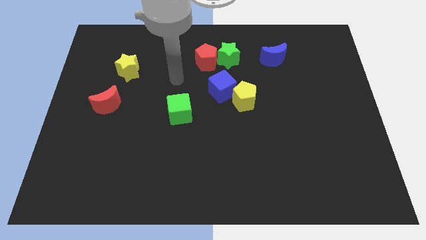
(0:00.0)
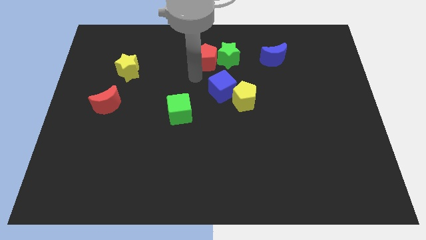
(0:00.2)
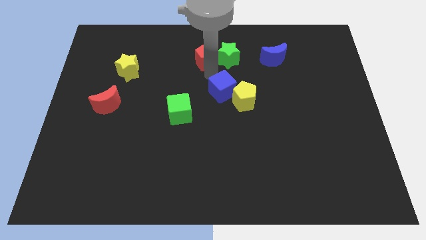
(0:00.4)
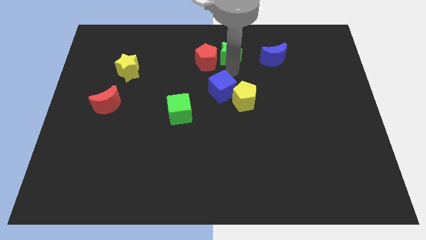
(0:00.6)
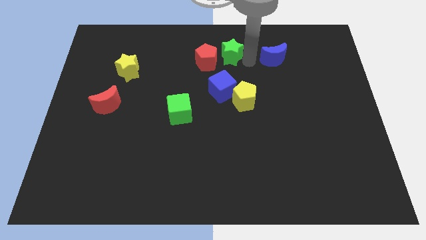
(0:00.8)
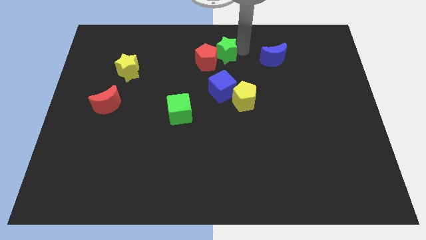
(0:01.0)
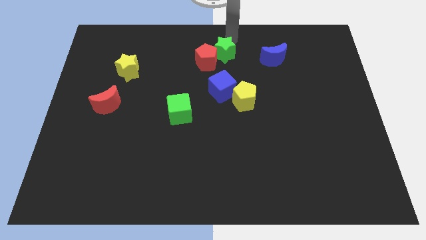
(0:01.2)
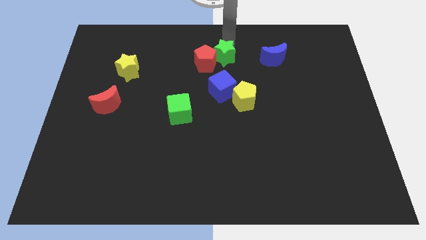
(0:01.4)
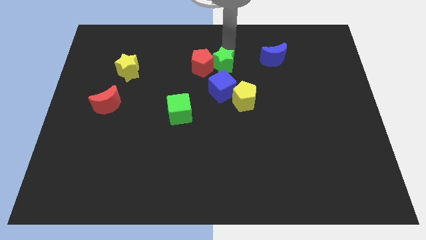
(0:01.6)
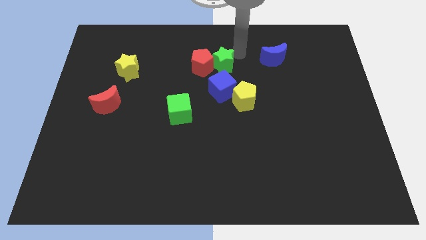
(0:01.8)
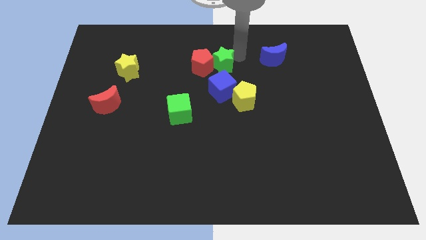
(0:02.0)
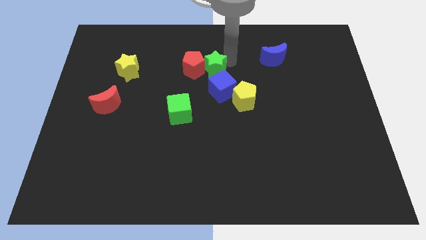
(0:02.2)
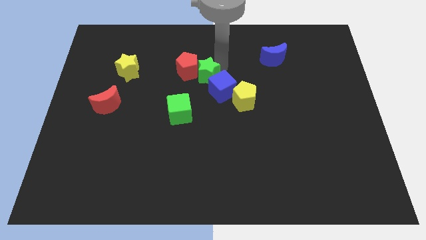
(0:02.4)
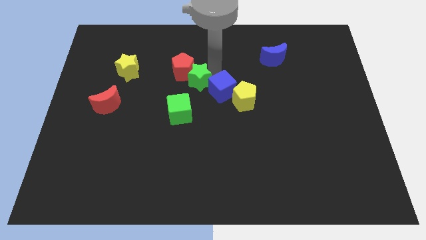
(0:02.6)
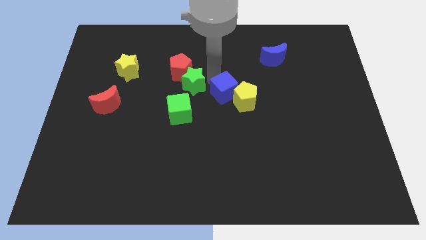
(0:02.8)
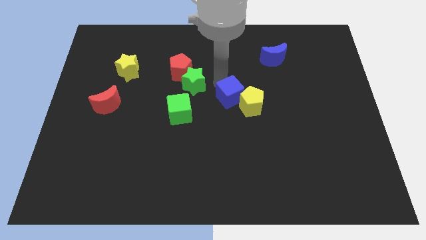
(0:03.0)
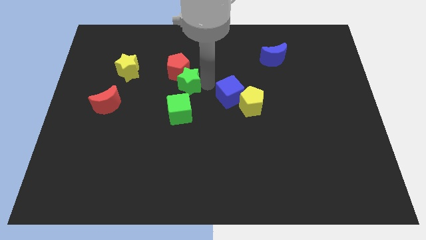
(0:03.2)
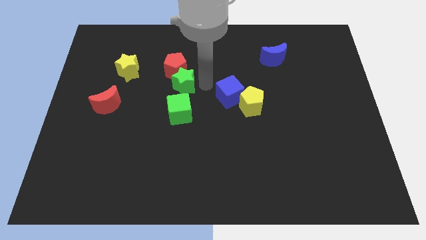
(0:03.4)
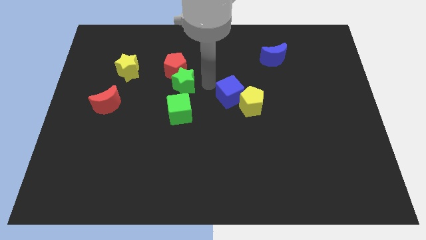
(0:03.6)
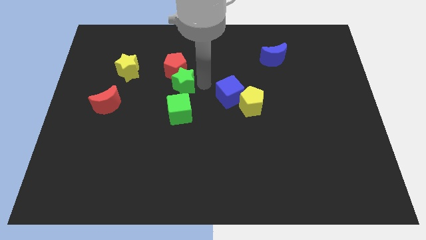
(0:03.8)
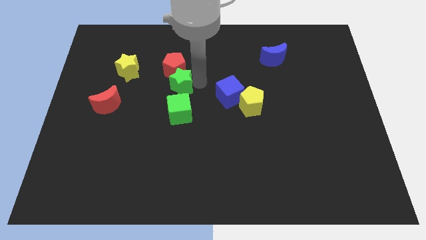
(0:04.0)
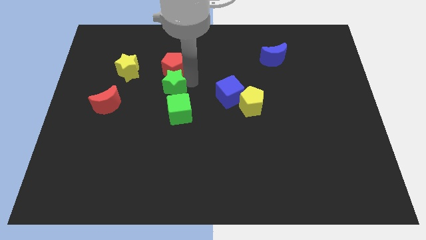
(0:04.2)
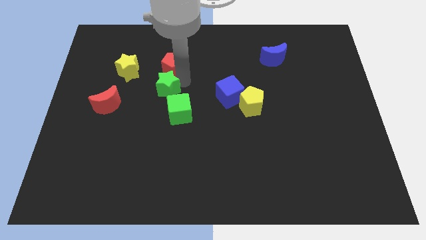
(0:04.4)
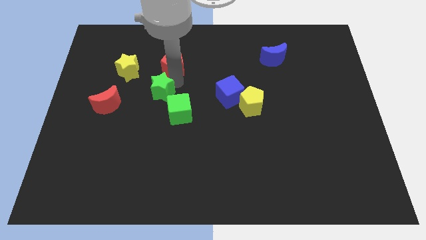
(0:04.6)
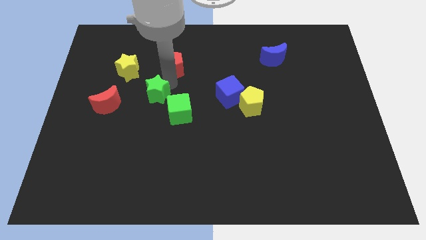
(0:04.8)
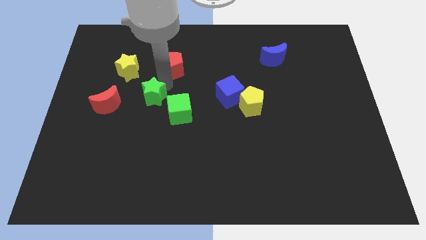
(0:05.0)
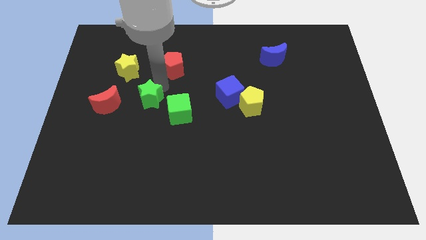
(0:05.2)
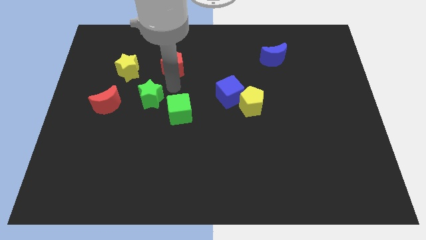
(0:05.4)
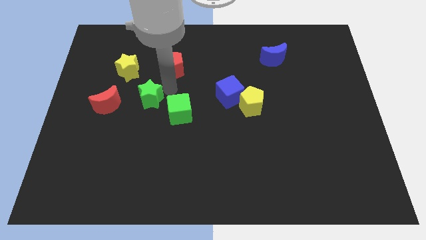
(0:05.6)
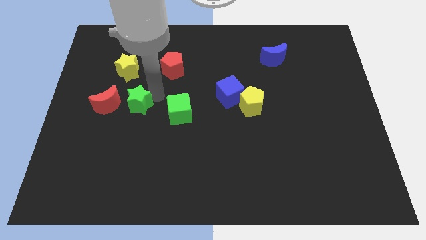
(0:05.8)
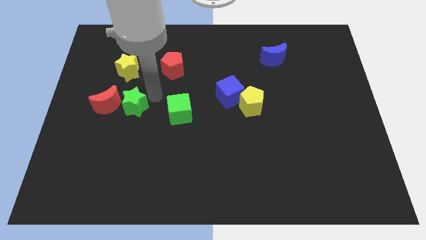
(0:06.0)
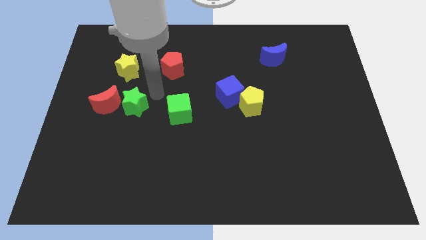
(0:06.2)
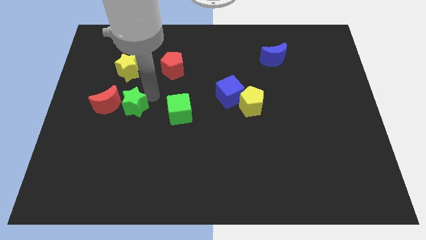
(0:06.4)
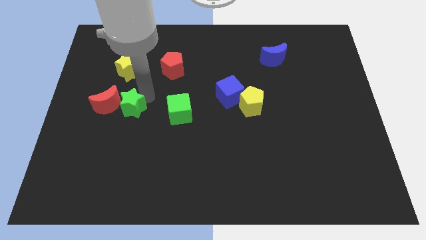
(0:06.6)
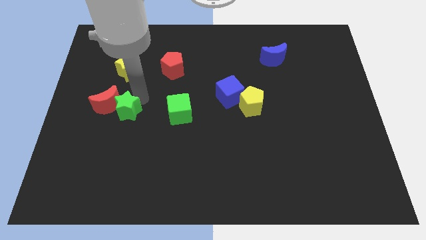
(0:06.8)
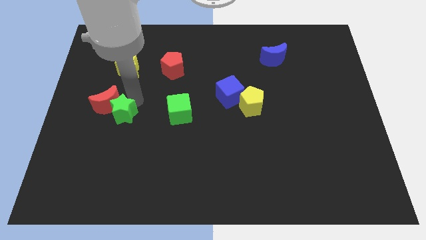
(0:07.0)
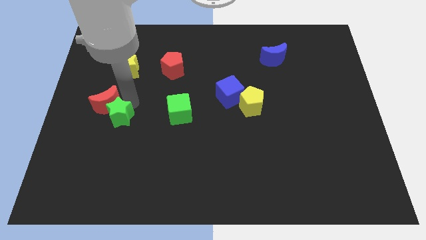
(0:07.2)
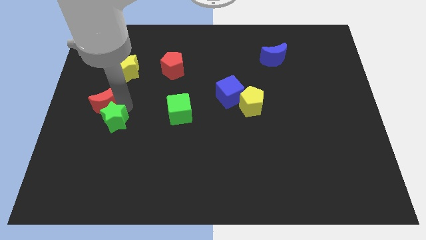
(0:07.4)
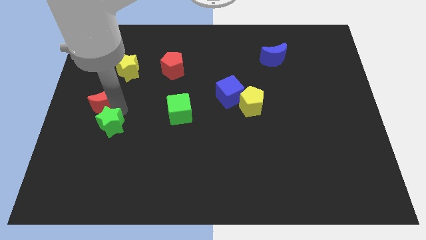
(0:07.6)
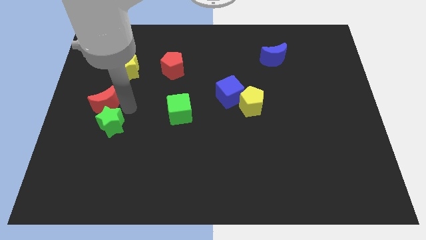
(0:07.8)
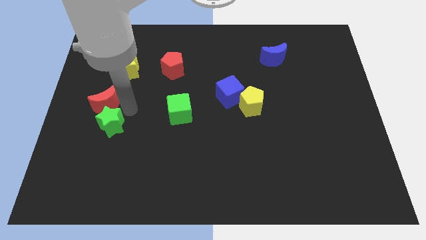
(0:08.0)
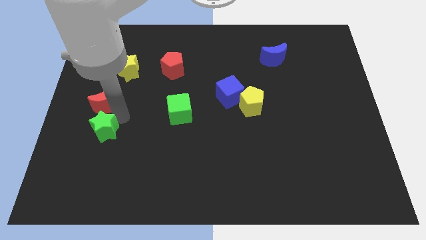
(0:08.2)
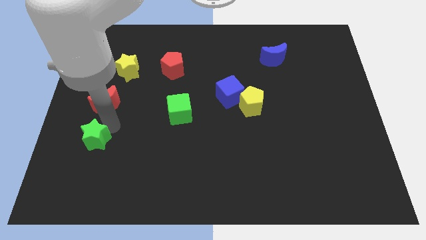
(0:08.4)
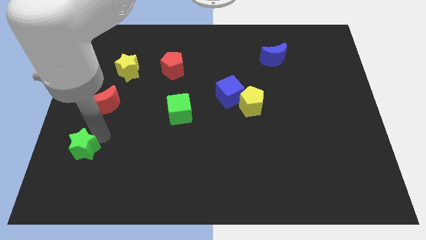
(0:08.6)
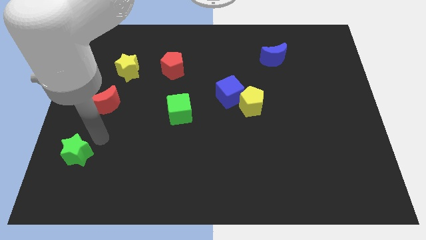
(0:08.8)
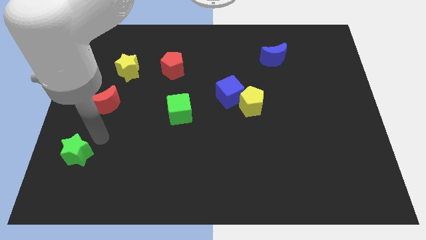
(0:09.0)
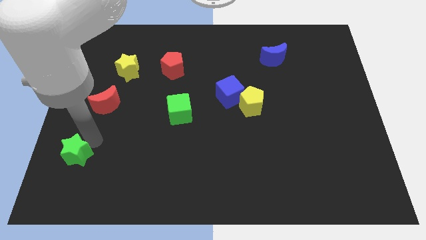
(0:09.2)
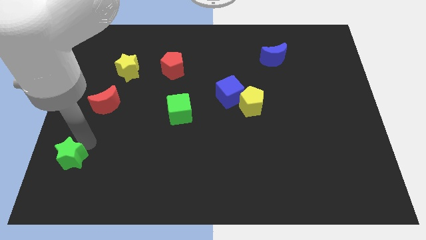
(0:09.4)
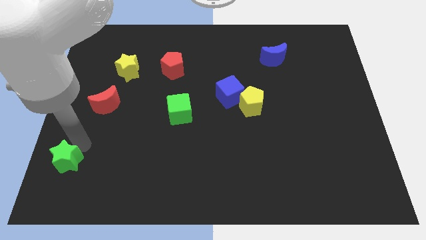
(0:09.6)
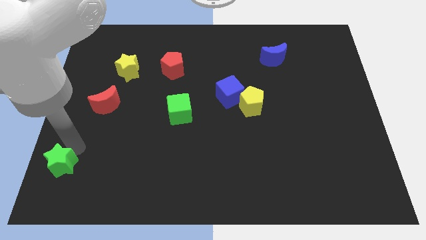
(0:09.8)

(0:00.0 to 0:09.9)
push the green star to the bottom left

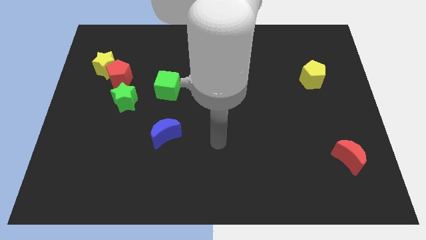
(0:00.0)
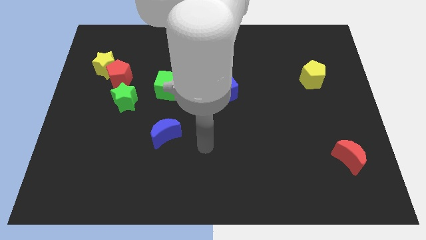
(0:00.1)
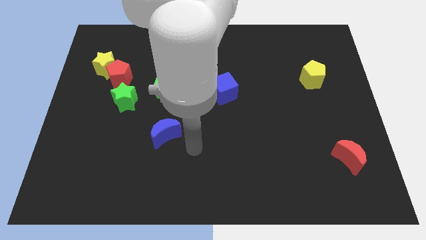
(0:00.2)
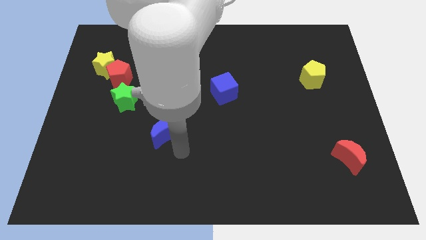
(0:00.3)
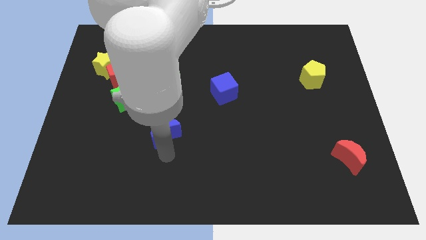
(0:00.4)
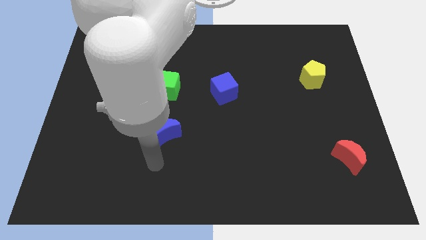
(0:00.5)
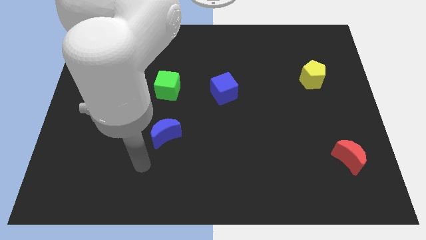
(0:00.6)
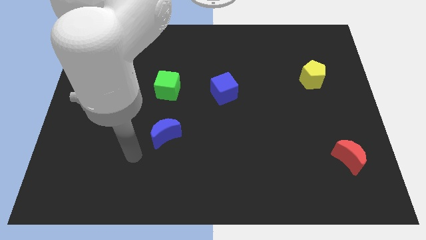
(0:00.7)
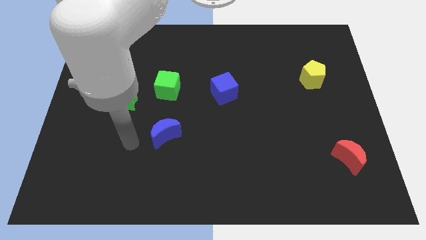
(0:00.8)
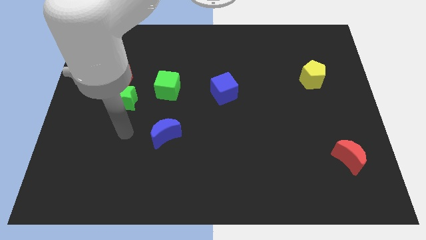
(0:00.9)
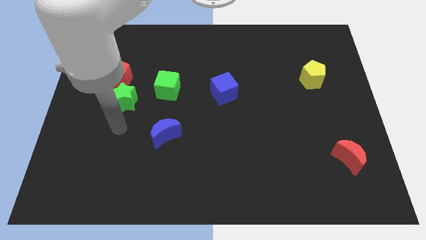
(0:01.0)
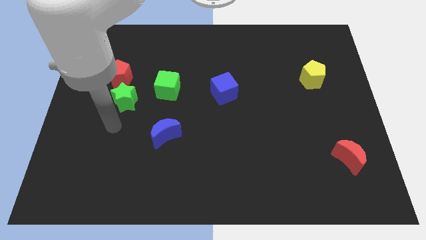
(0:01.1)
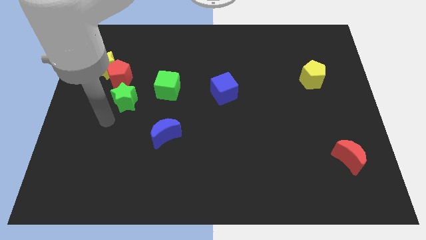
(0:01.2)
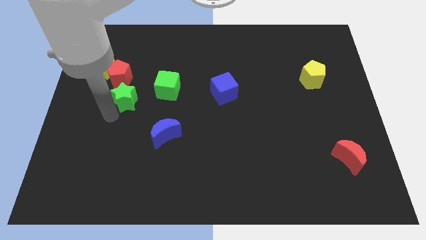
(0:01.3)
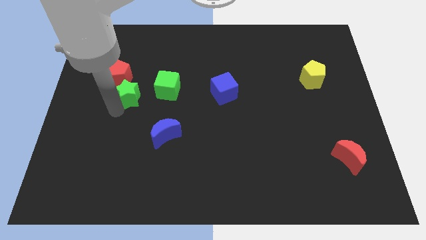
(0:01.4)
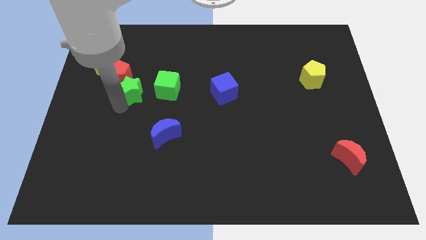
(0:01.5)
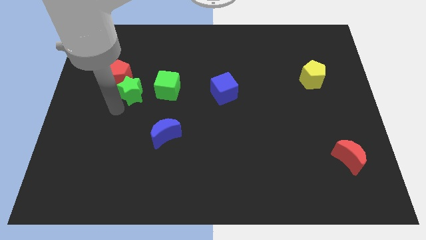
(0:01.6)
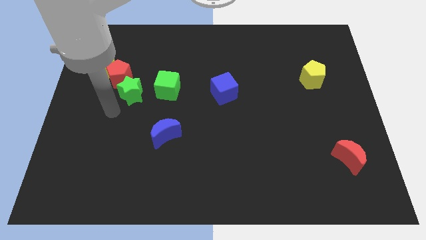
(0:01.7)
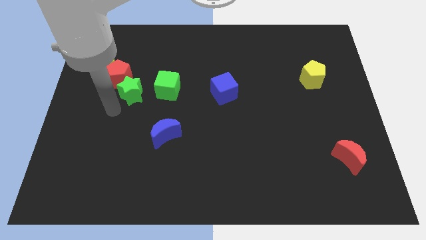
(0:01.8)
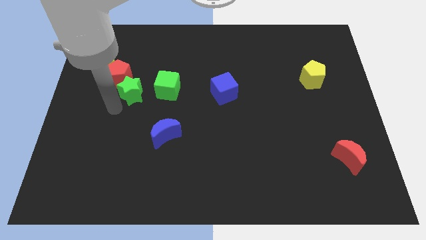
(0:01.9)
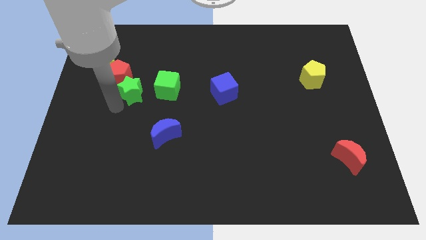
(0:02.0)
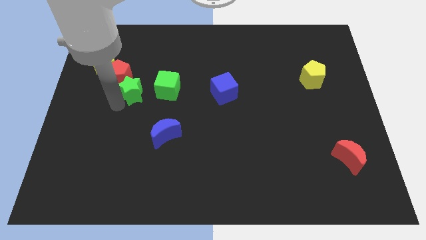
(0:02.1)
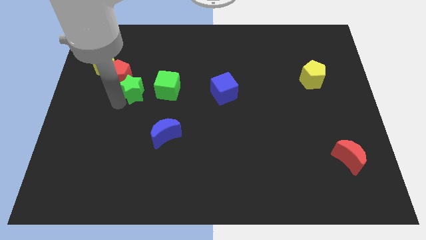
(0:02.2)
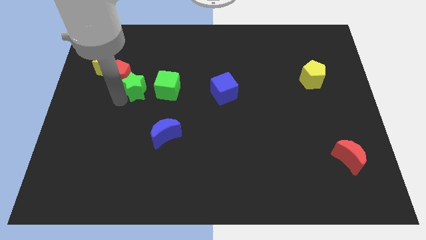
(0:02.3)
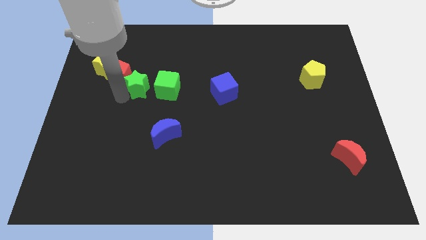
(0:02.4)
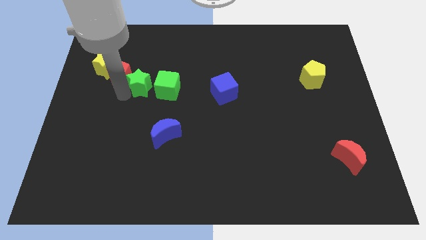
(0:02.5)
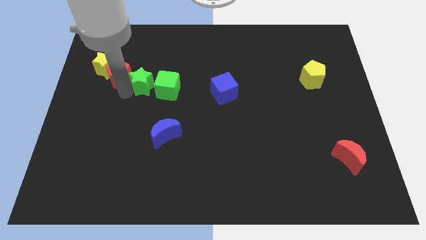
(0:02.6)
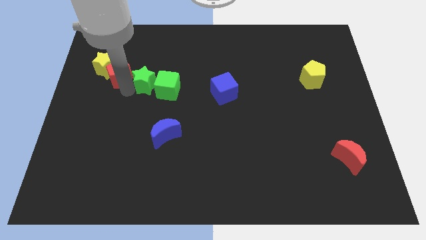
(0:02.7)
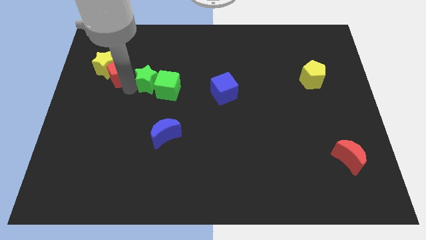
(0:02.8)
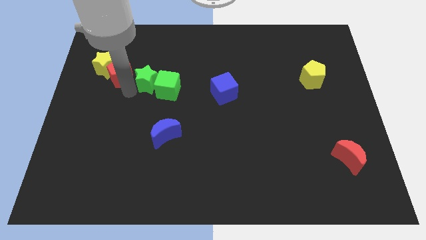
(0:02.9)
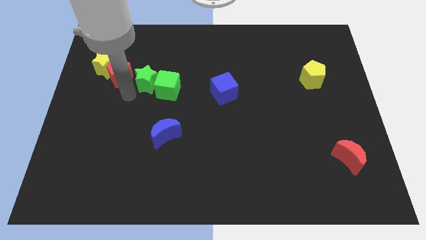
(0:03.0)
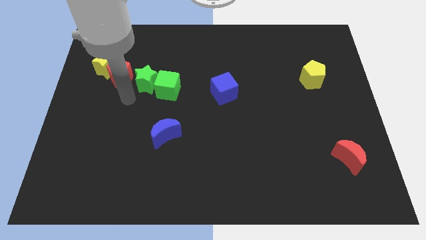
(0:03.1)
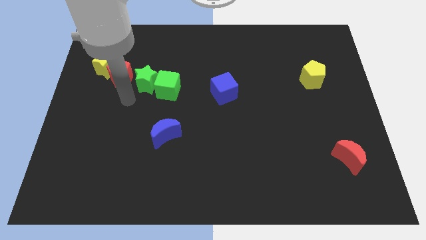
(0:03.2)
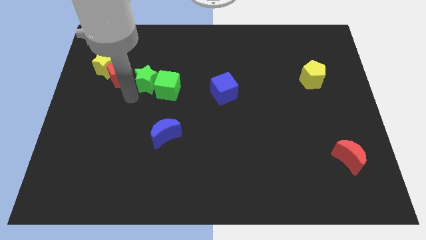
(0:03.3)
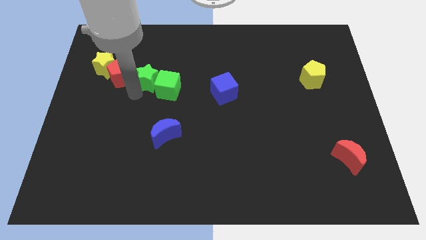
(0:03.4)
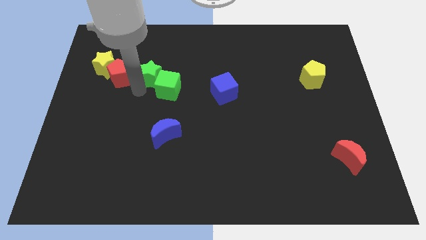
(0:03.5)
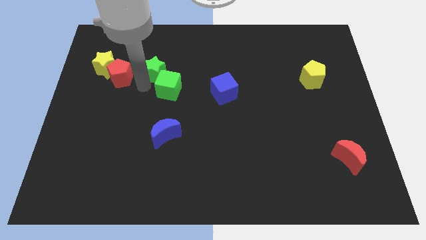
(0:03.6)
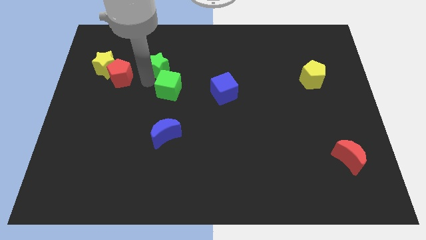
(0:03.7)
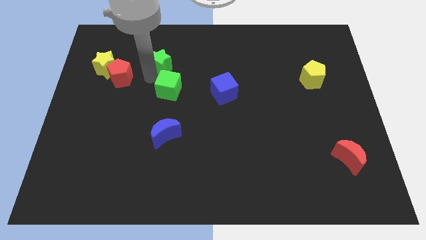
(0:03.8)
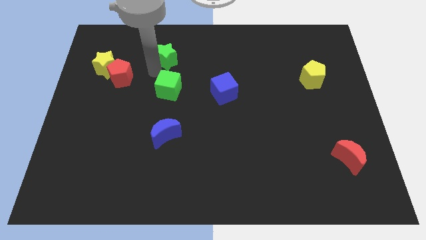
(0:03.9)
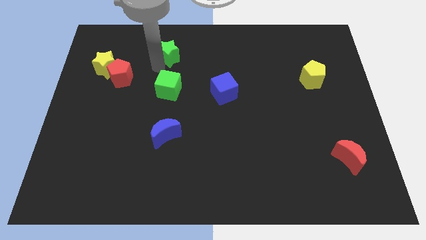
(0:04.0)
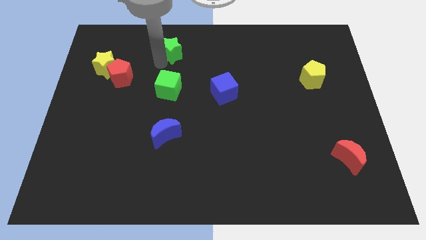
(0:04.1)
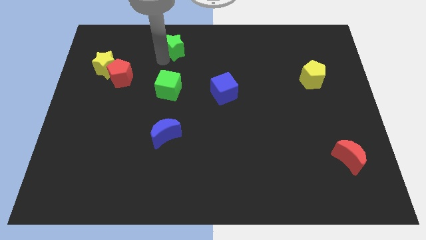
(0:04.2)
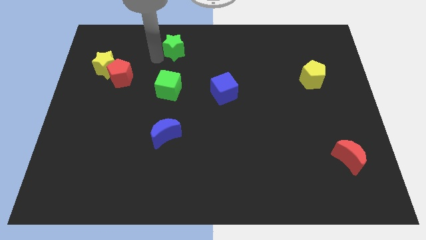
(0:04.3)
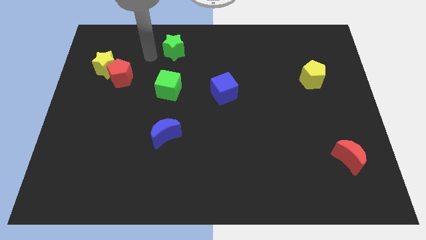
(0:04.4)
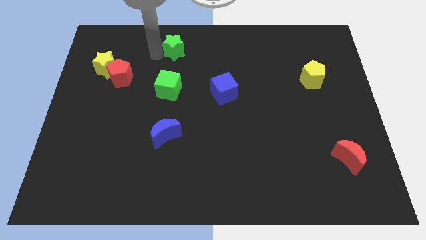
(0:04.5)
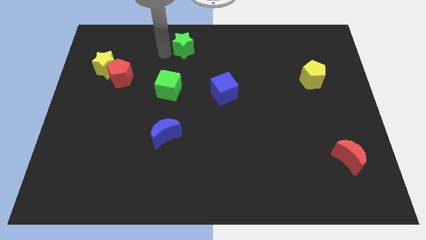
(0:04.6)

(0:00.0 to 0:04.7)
move the green star to the top
